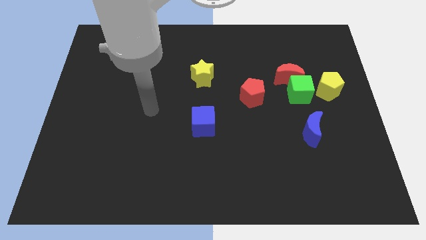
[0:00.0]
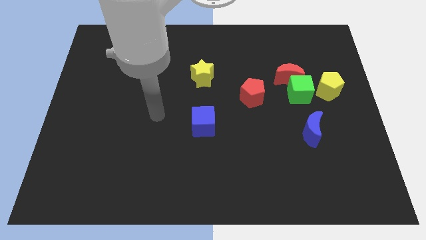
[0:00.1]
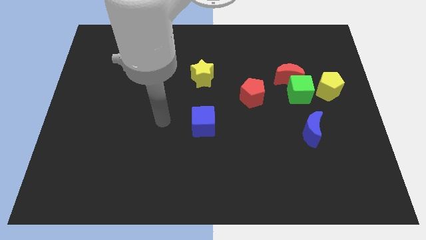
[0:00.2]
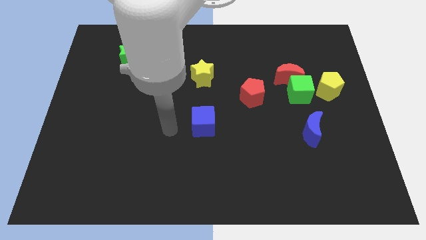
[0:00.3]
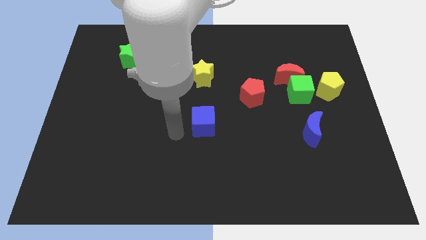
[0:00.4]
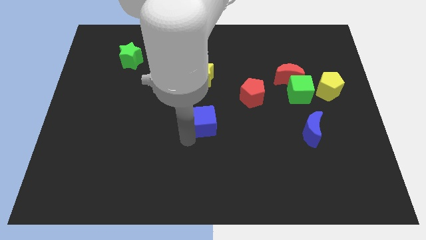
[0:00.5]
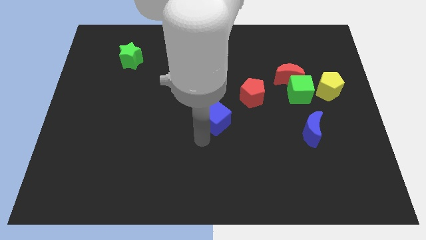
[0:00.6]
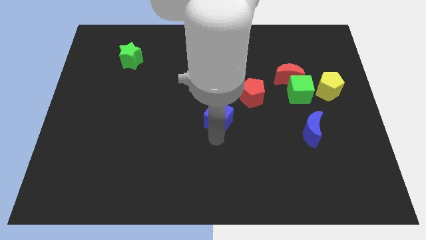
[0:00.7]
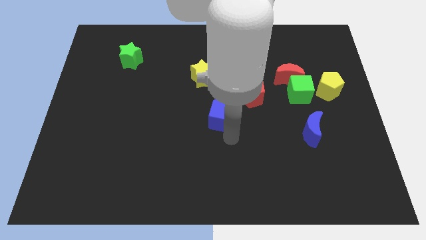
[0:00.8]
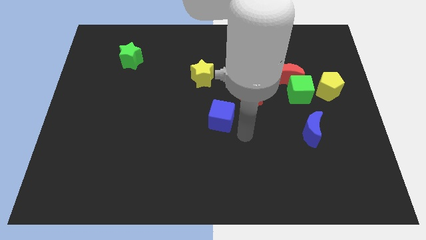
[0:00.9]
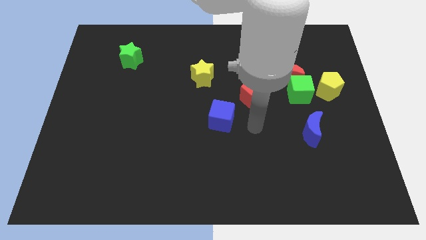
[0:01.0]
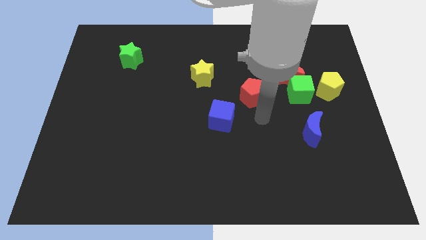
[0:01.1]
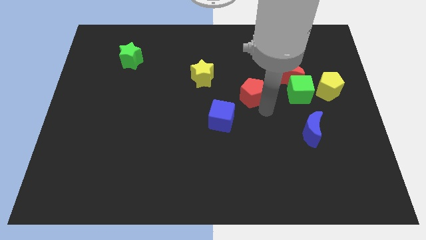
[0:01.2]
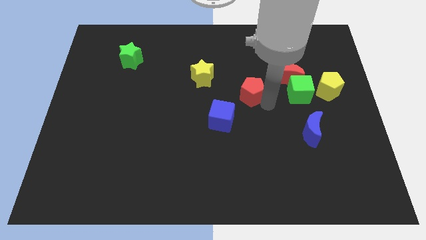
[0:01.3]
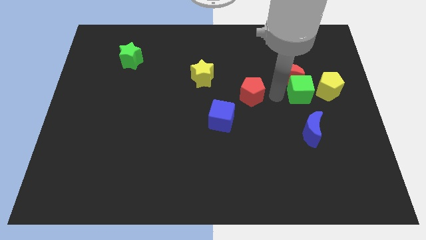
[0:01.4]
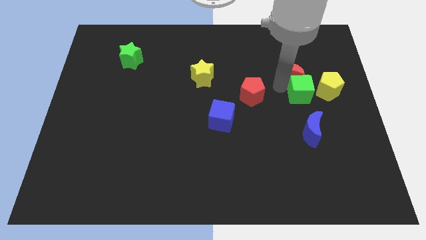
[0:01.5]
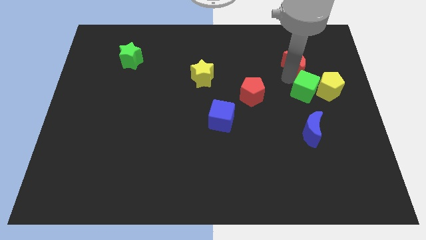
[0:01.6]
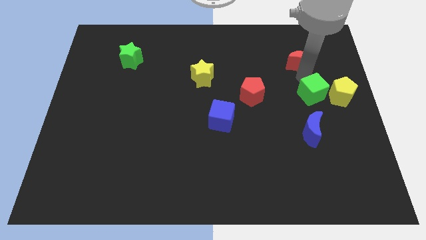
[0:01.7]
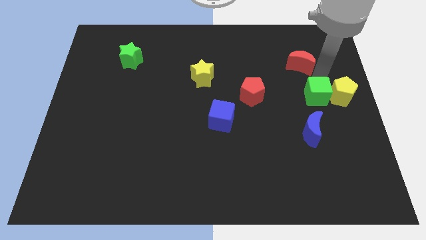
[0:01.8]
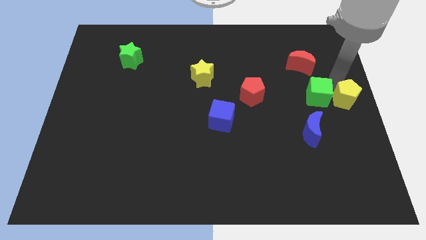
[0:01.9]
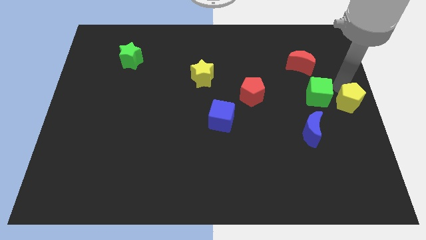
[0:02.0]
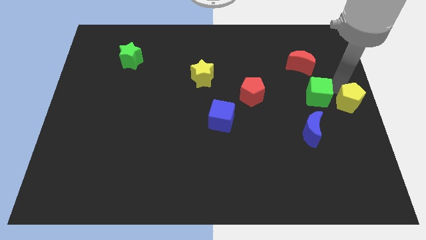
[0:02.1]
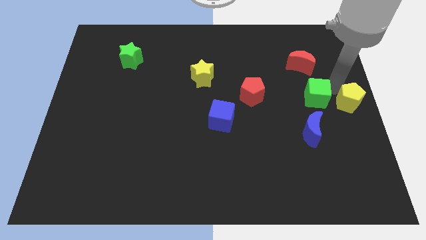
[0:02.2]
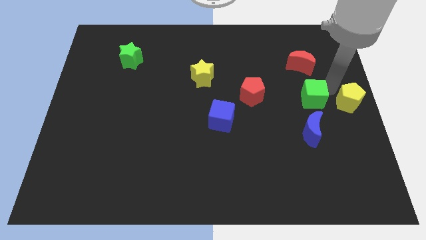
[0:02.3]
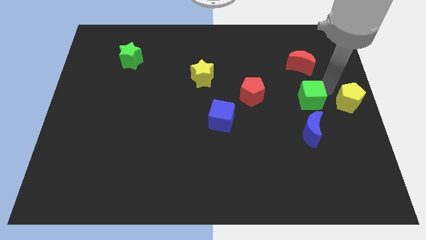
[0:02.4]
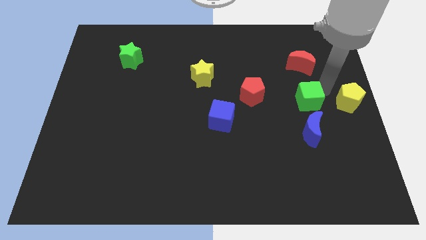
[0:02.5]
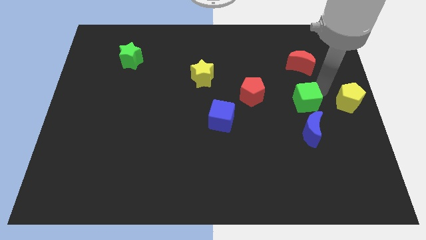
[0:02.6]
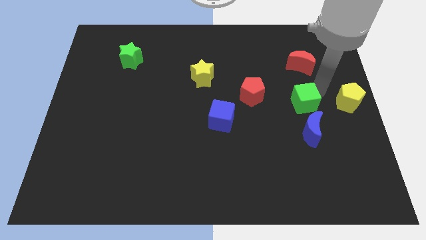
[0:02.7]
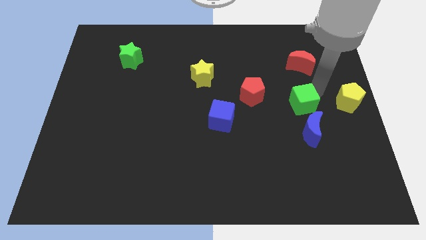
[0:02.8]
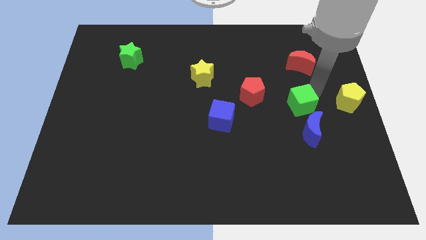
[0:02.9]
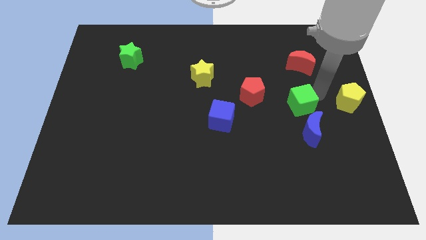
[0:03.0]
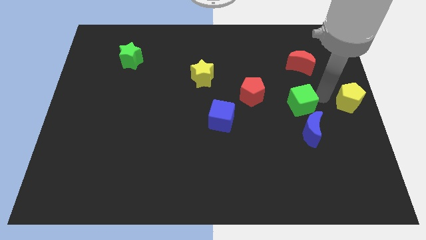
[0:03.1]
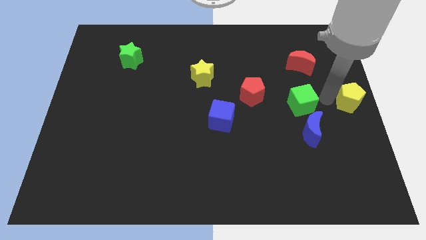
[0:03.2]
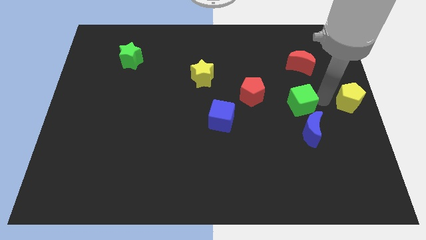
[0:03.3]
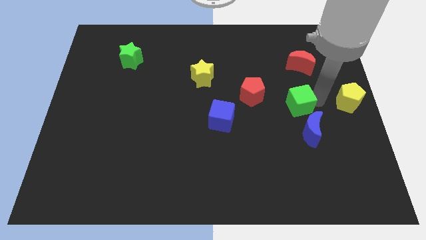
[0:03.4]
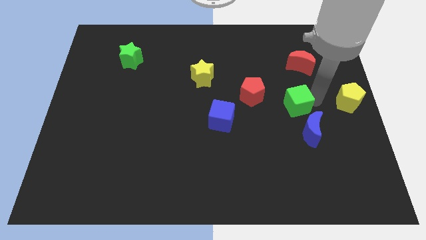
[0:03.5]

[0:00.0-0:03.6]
pull the green cube apart from the red moon and yellow pentagon

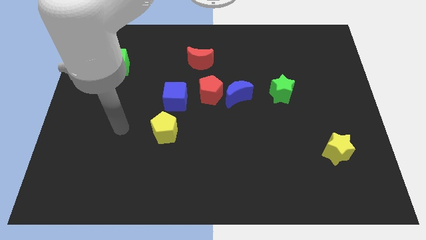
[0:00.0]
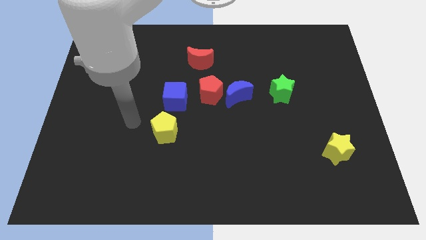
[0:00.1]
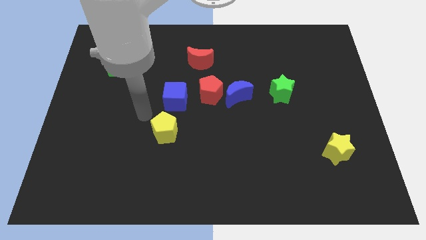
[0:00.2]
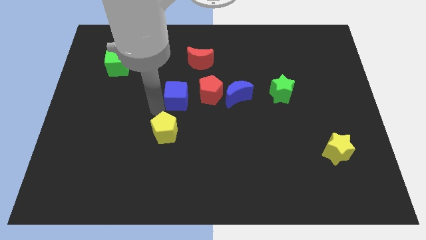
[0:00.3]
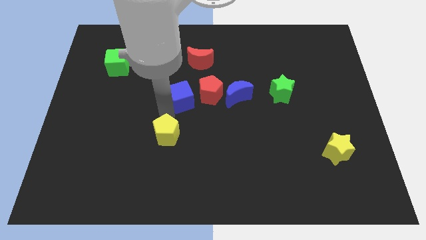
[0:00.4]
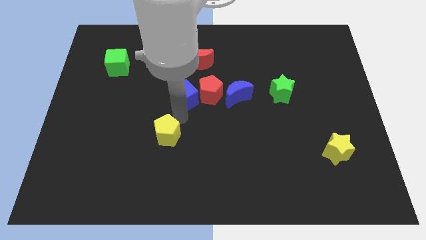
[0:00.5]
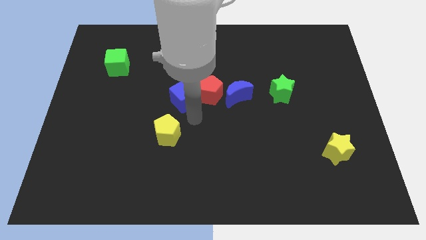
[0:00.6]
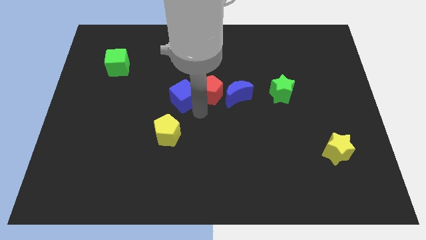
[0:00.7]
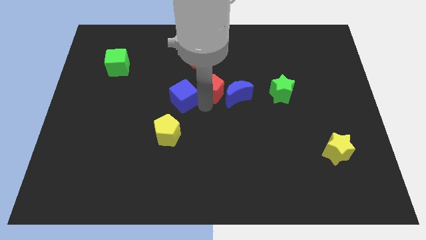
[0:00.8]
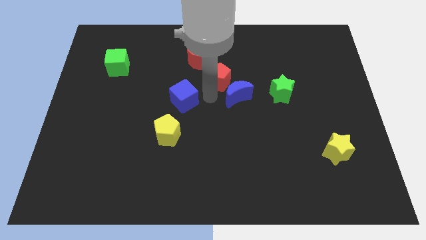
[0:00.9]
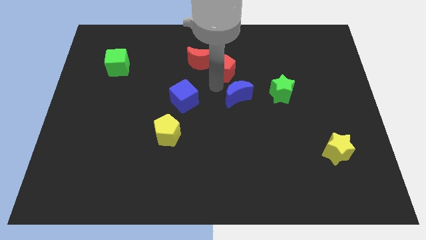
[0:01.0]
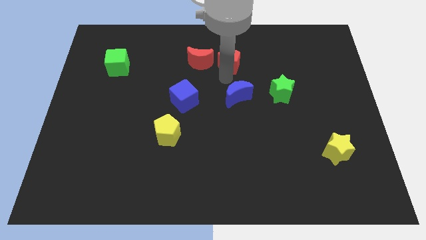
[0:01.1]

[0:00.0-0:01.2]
separate the blue moon from the red pentagon

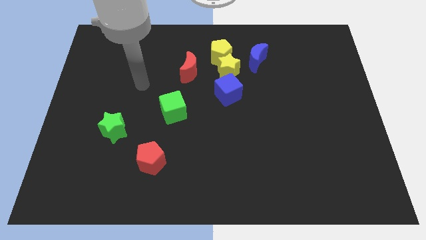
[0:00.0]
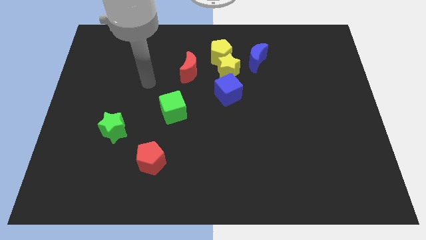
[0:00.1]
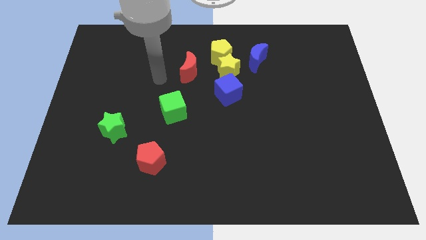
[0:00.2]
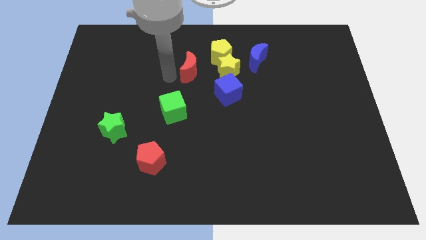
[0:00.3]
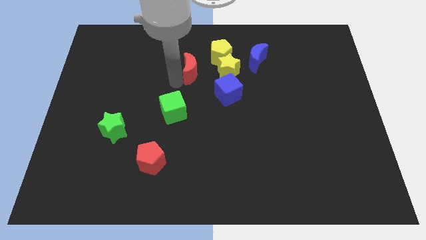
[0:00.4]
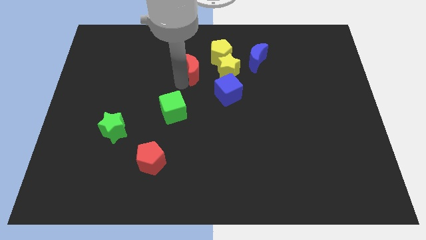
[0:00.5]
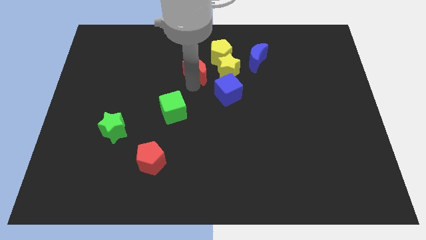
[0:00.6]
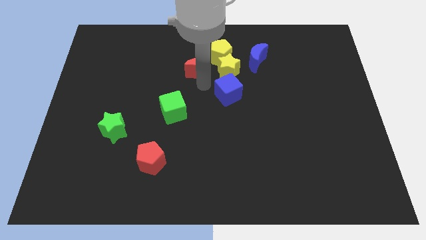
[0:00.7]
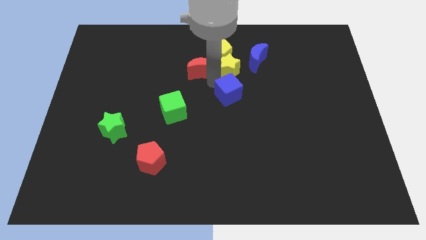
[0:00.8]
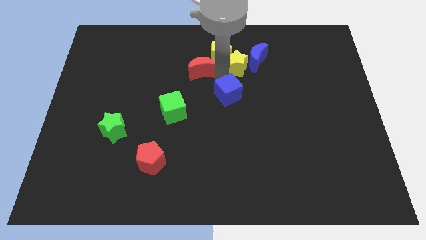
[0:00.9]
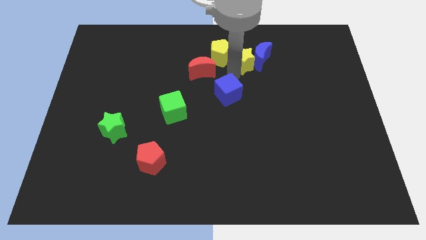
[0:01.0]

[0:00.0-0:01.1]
move the blue cube away from the yellow star

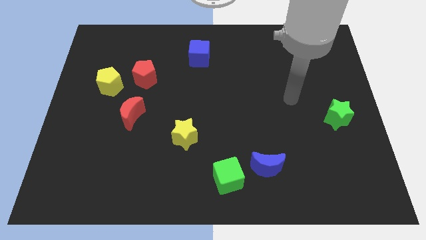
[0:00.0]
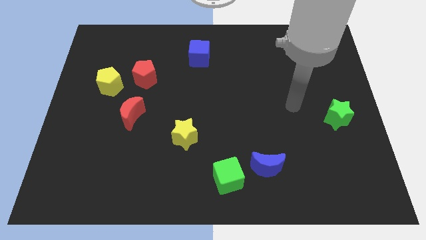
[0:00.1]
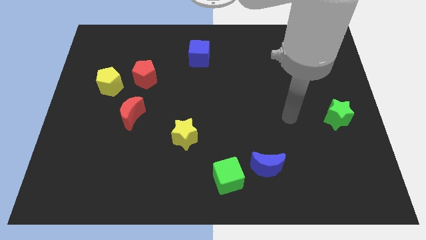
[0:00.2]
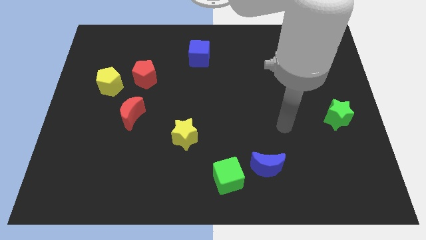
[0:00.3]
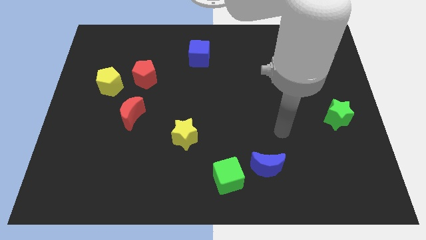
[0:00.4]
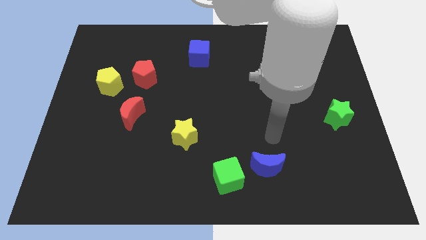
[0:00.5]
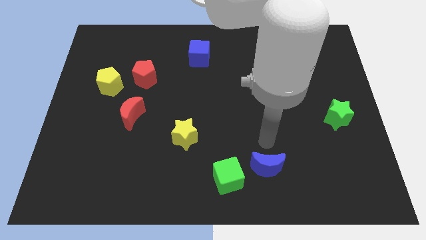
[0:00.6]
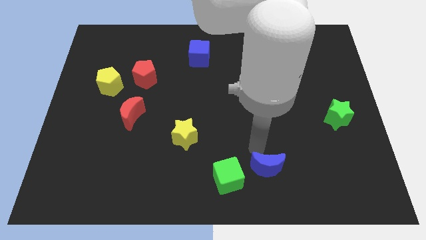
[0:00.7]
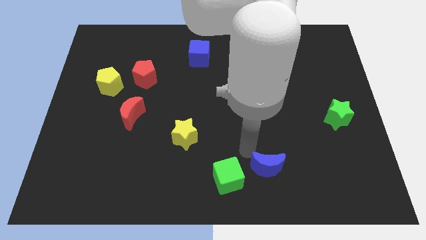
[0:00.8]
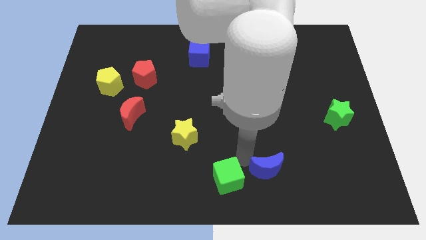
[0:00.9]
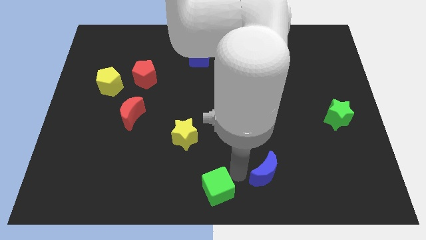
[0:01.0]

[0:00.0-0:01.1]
separate the blue moon from the green cube

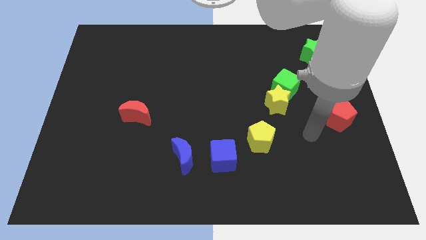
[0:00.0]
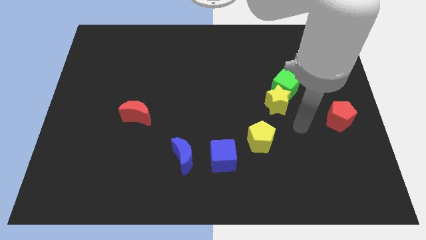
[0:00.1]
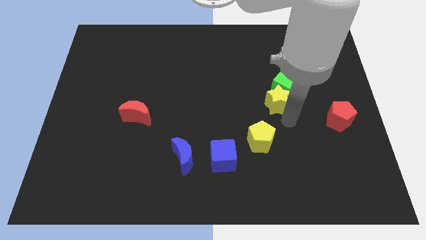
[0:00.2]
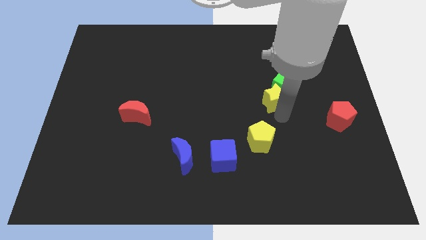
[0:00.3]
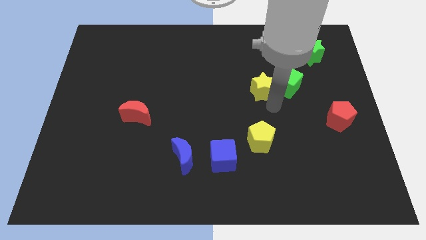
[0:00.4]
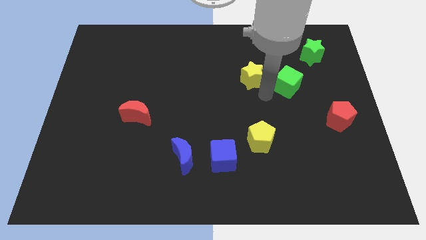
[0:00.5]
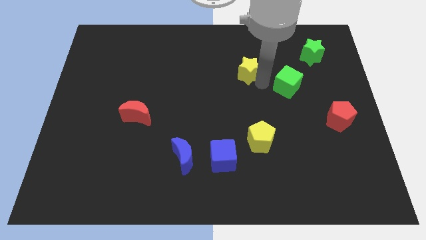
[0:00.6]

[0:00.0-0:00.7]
move the green cube away from the yellow star

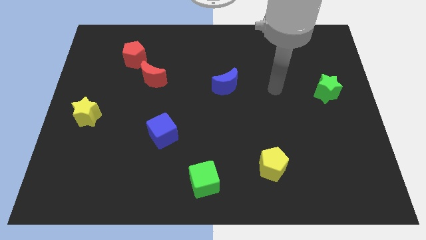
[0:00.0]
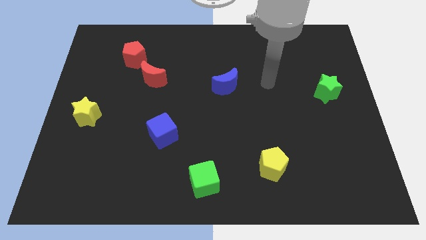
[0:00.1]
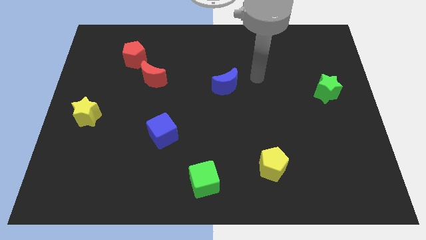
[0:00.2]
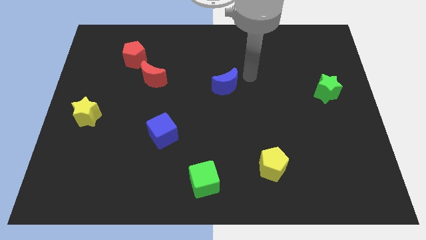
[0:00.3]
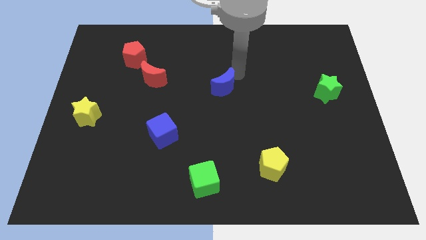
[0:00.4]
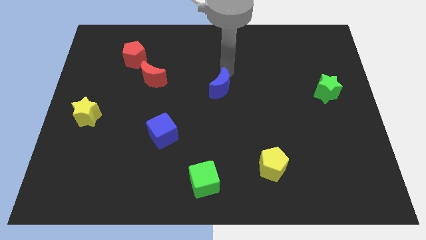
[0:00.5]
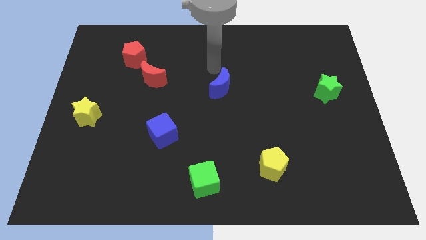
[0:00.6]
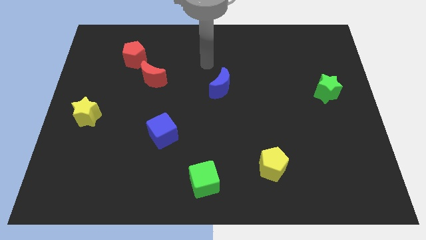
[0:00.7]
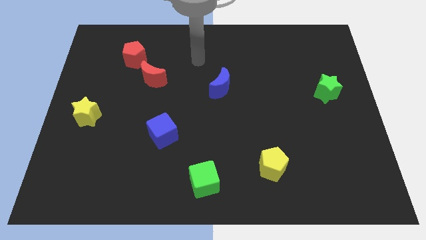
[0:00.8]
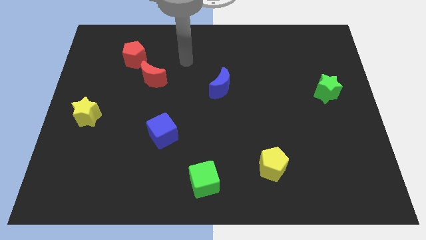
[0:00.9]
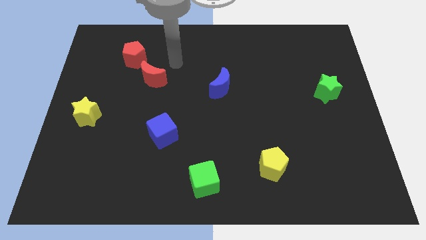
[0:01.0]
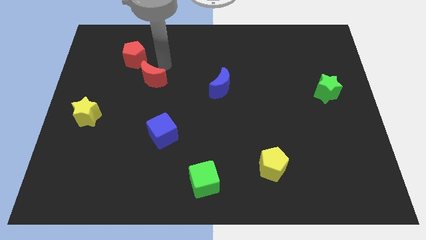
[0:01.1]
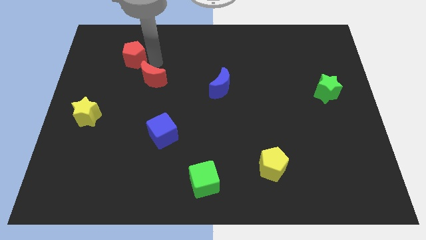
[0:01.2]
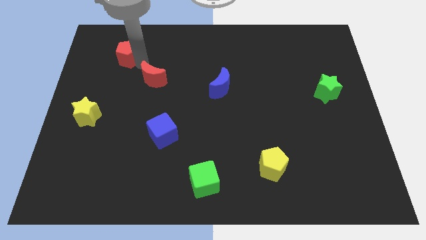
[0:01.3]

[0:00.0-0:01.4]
move the red moon away from the red pentagon

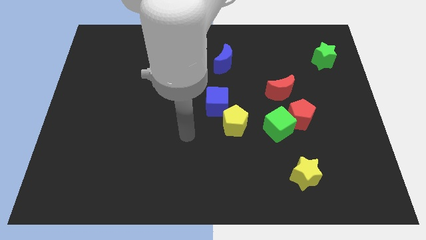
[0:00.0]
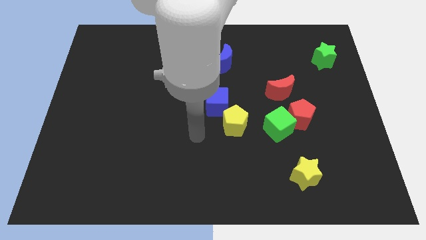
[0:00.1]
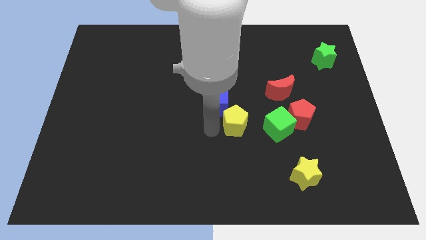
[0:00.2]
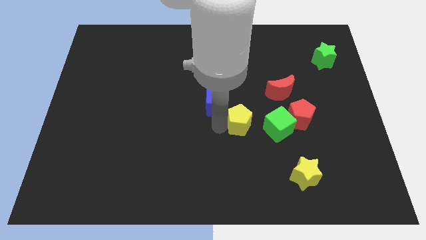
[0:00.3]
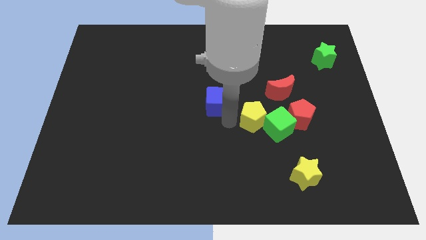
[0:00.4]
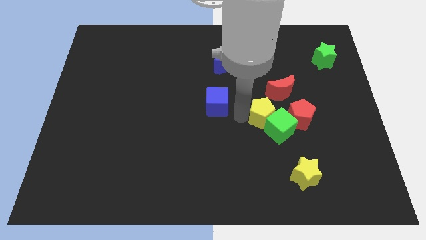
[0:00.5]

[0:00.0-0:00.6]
separate the blue cube from the yellow pentagon
